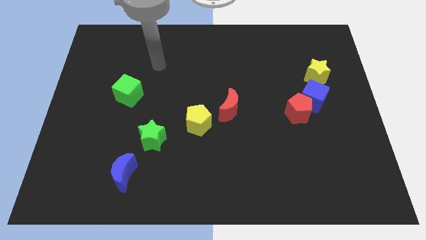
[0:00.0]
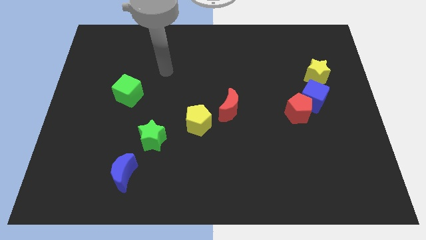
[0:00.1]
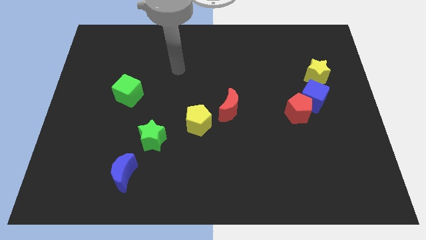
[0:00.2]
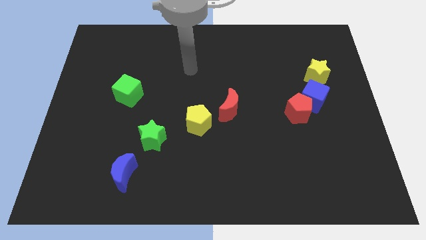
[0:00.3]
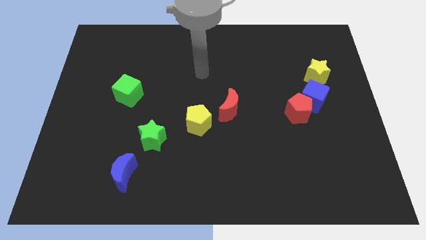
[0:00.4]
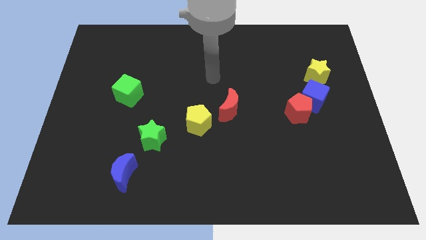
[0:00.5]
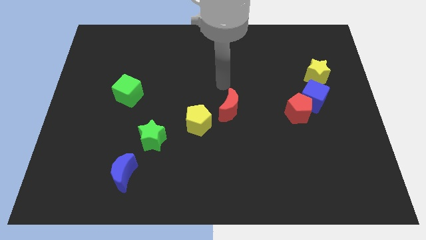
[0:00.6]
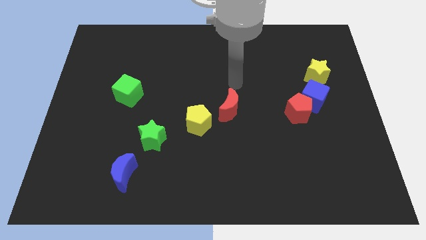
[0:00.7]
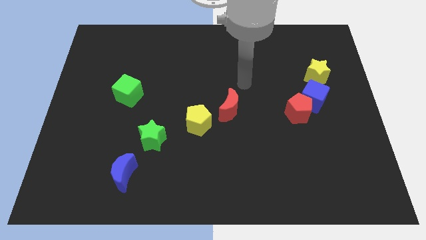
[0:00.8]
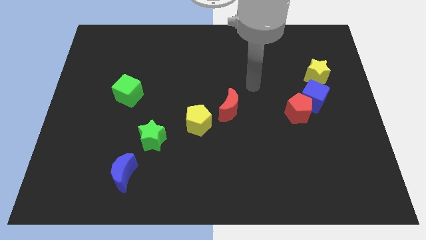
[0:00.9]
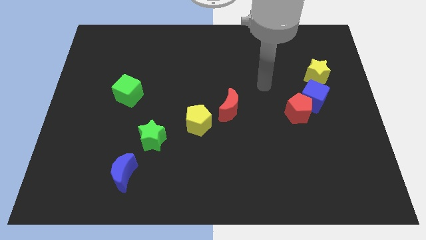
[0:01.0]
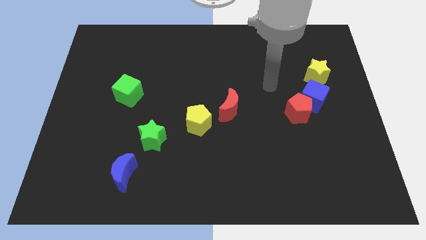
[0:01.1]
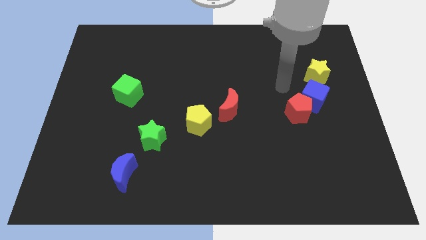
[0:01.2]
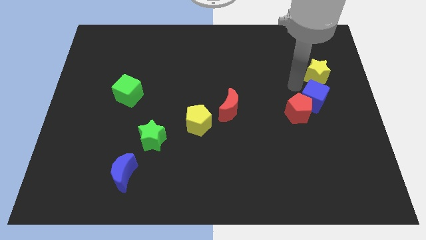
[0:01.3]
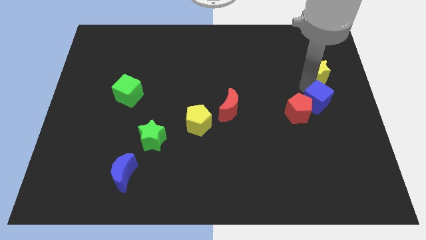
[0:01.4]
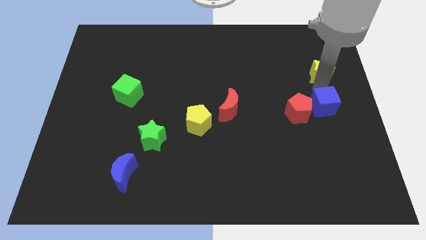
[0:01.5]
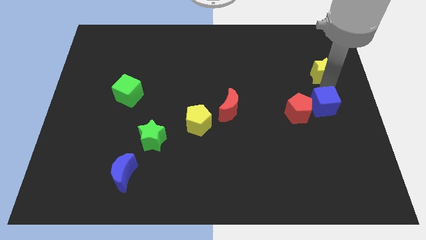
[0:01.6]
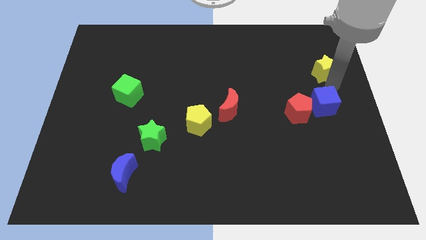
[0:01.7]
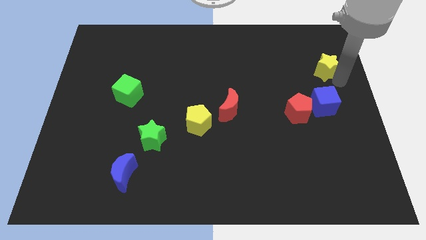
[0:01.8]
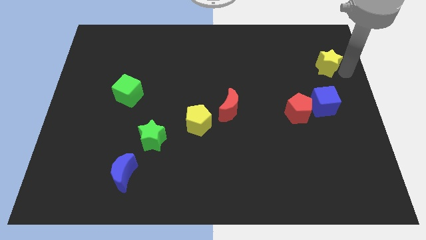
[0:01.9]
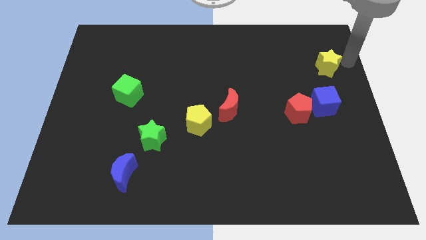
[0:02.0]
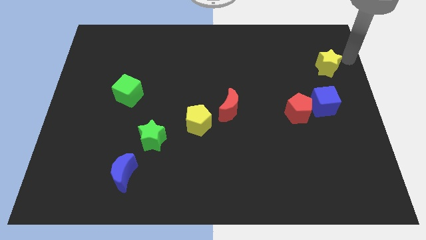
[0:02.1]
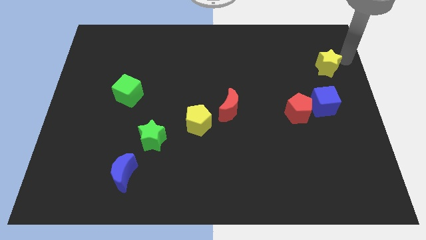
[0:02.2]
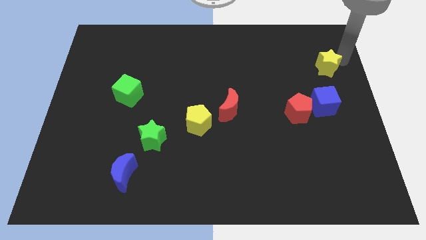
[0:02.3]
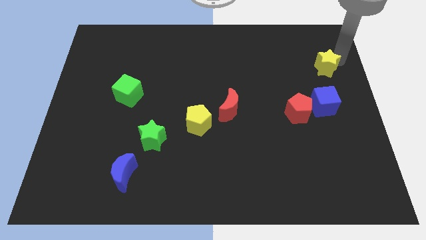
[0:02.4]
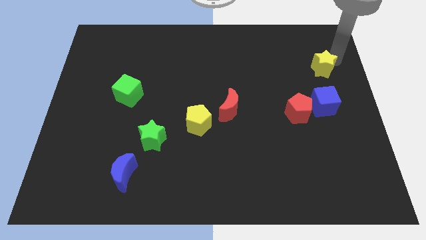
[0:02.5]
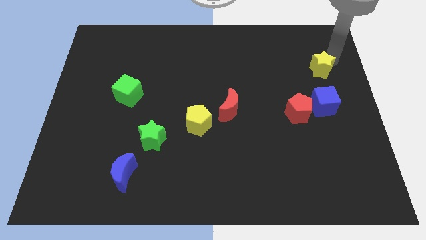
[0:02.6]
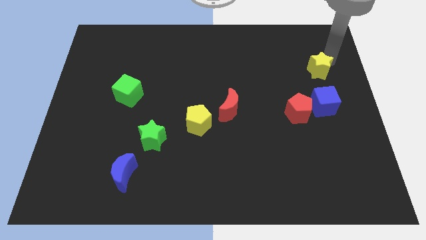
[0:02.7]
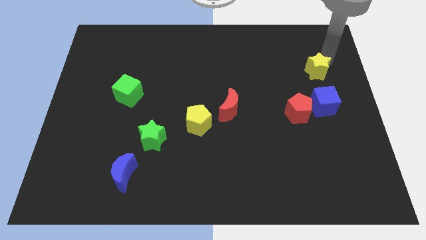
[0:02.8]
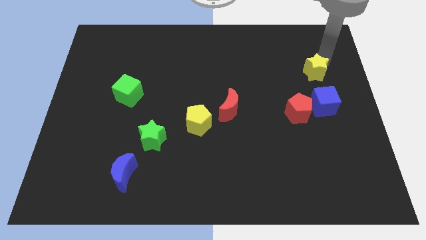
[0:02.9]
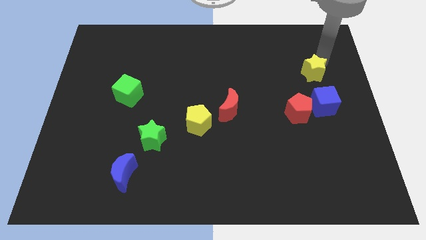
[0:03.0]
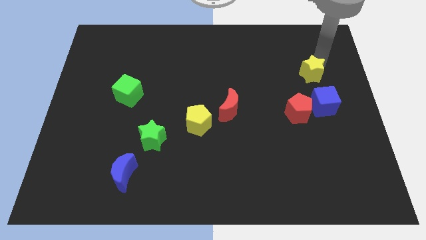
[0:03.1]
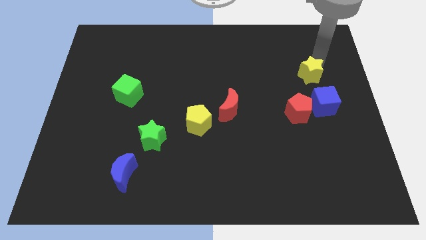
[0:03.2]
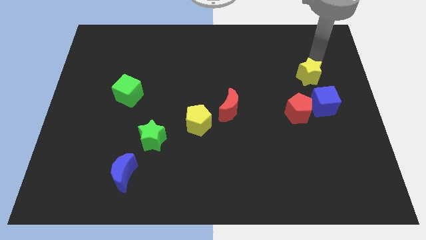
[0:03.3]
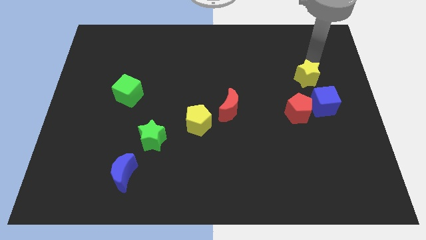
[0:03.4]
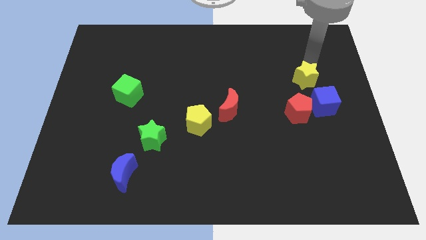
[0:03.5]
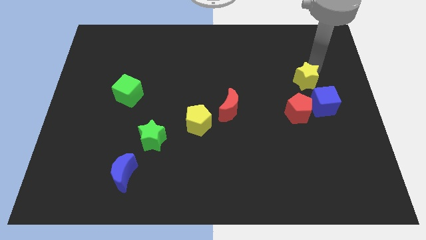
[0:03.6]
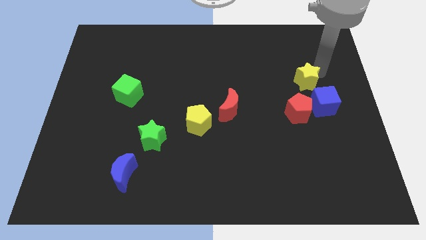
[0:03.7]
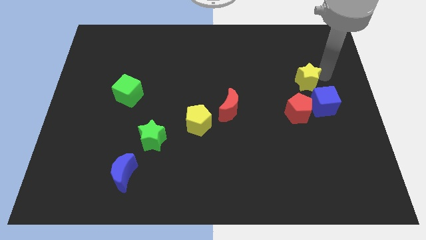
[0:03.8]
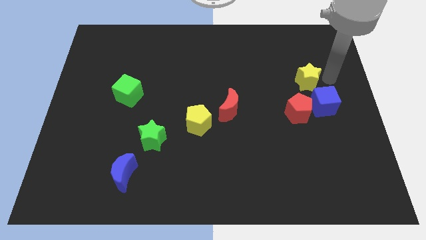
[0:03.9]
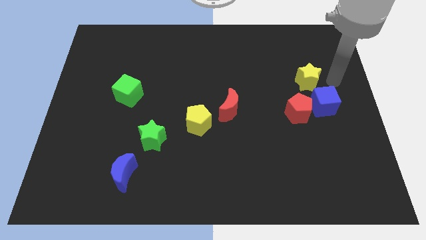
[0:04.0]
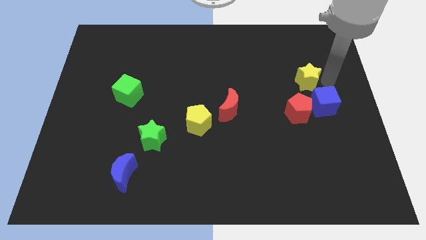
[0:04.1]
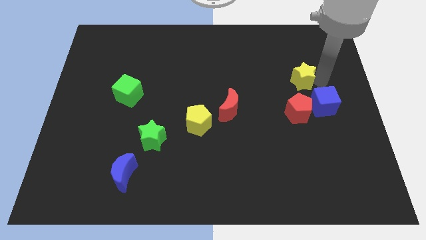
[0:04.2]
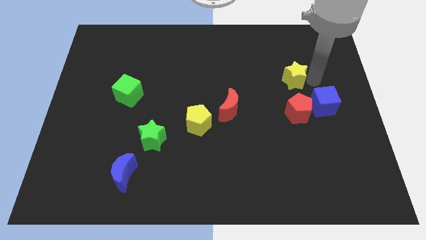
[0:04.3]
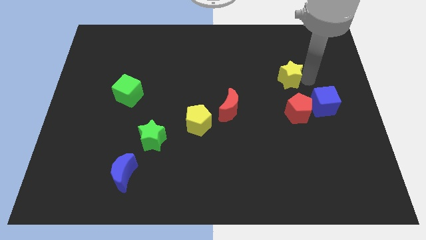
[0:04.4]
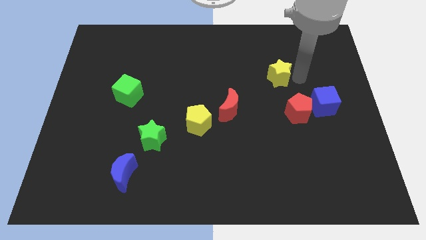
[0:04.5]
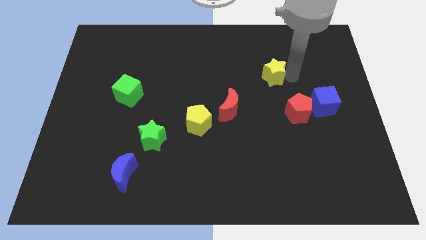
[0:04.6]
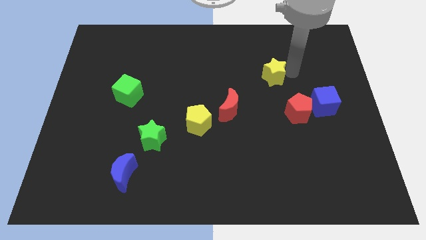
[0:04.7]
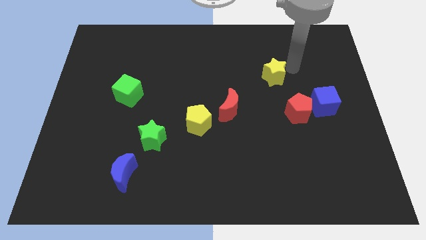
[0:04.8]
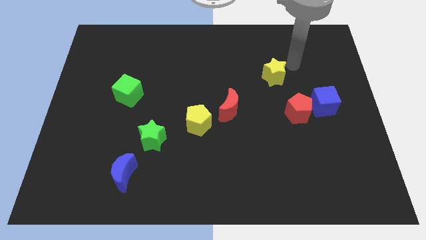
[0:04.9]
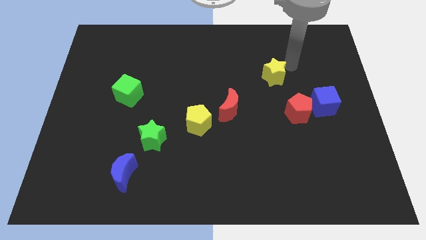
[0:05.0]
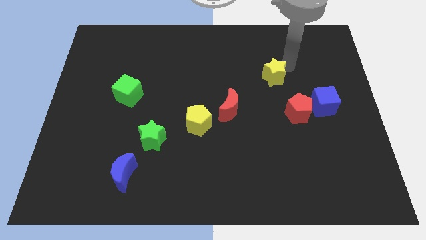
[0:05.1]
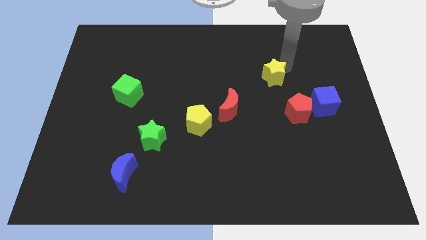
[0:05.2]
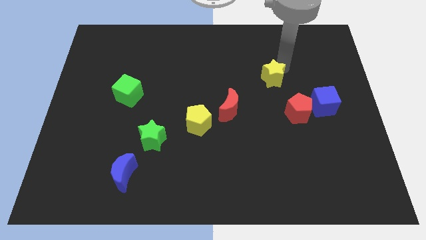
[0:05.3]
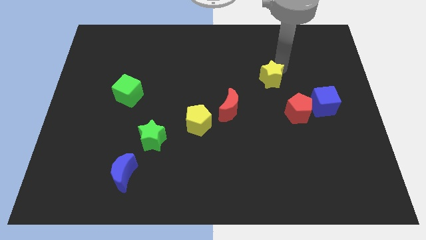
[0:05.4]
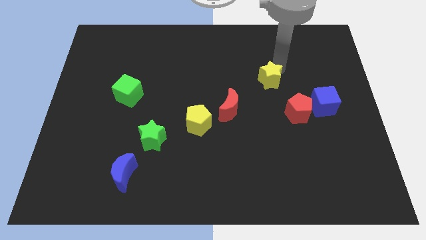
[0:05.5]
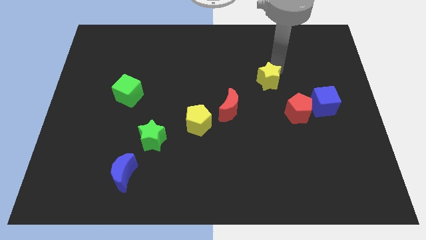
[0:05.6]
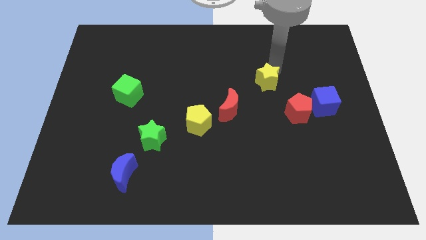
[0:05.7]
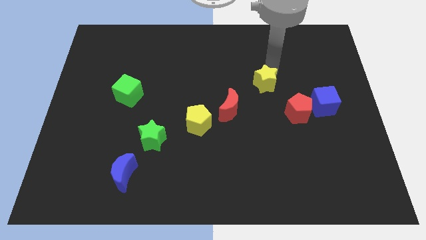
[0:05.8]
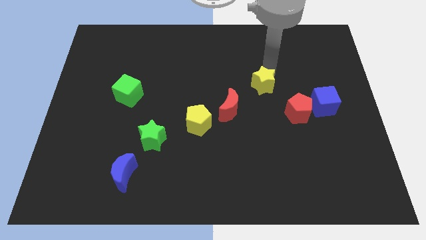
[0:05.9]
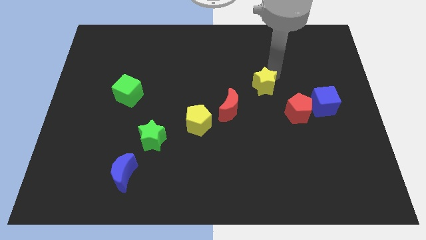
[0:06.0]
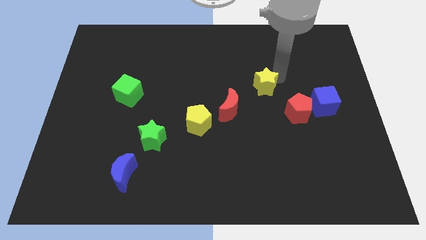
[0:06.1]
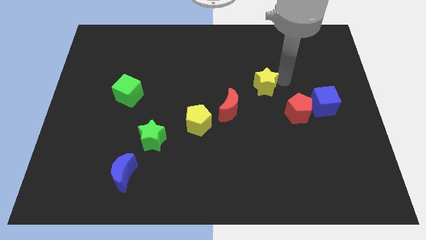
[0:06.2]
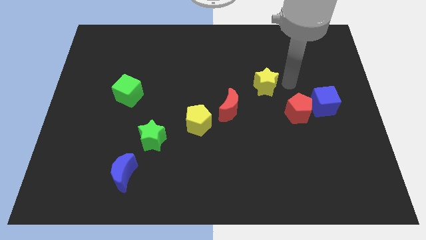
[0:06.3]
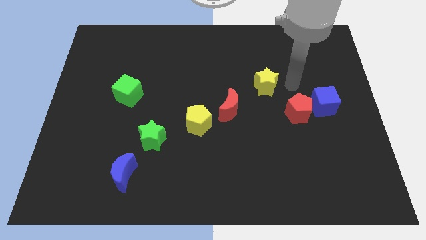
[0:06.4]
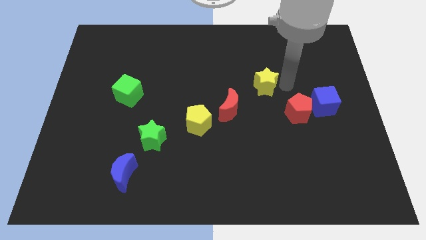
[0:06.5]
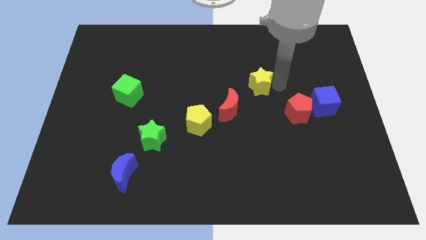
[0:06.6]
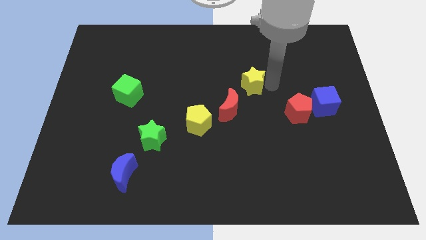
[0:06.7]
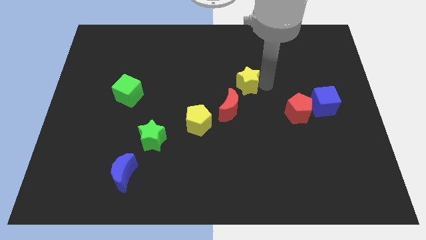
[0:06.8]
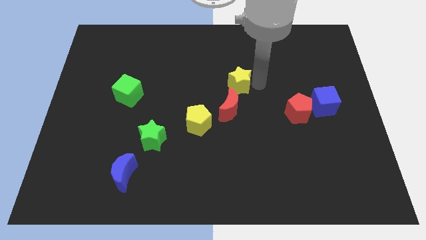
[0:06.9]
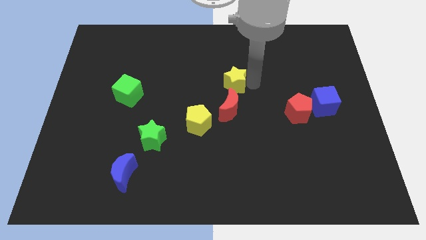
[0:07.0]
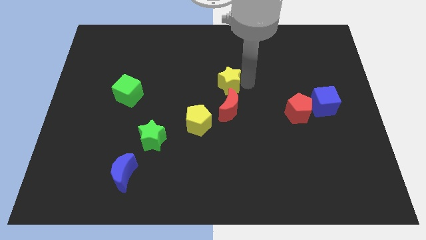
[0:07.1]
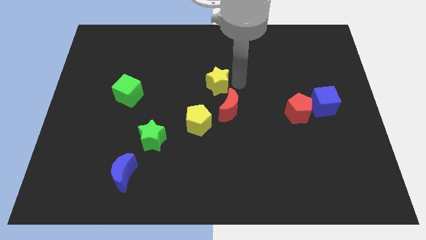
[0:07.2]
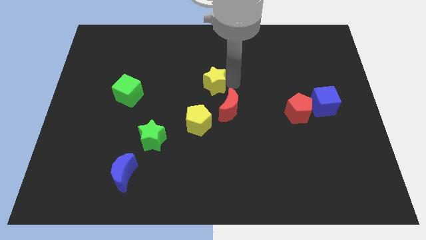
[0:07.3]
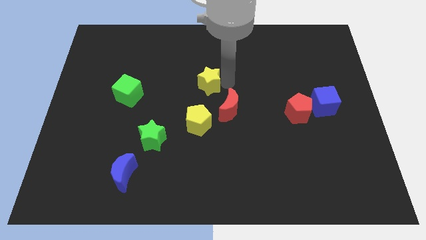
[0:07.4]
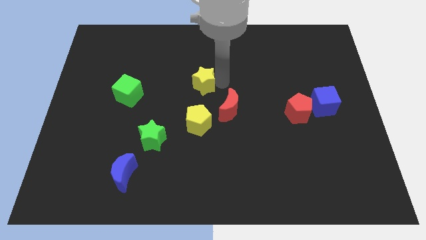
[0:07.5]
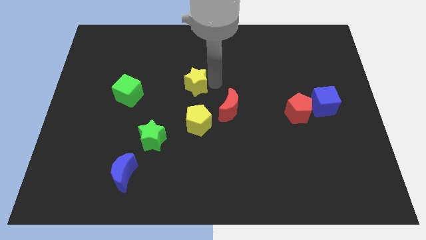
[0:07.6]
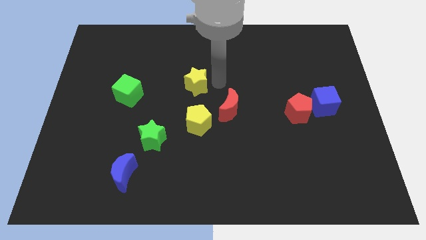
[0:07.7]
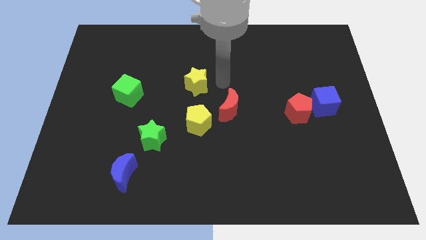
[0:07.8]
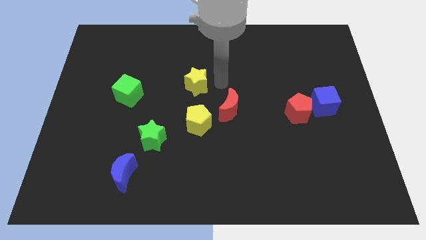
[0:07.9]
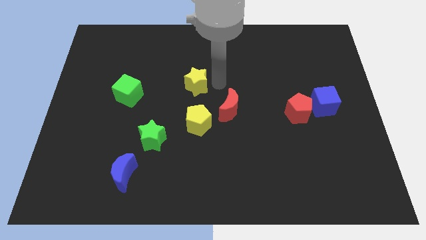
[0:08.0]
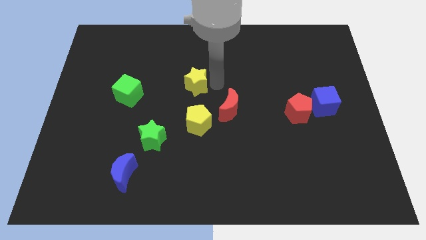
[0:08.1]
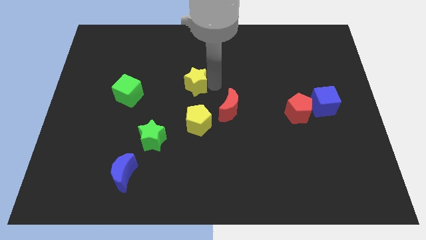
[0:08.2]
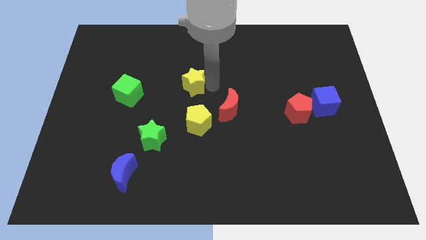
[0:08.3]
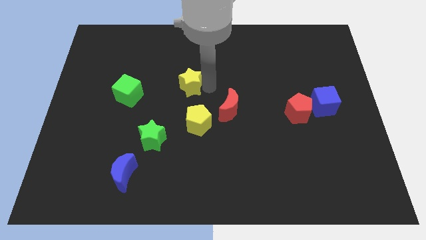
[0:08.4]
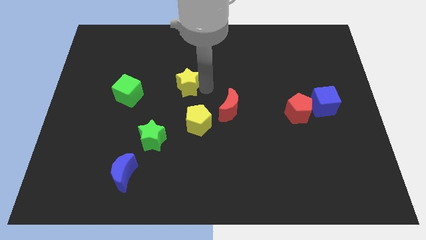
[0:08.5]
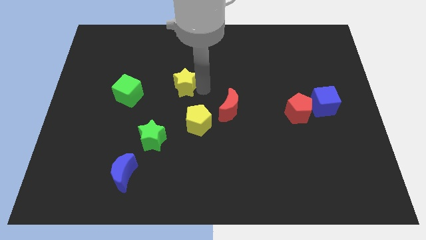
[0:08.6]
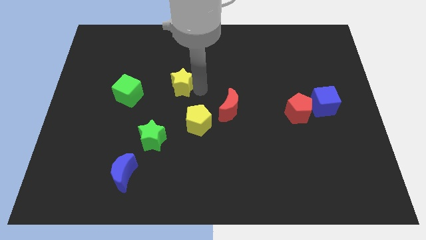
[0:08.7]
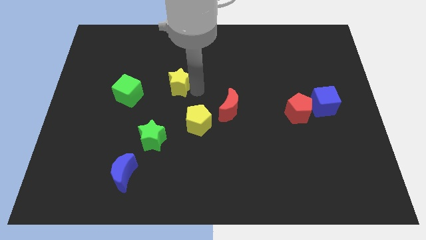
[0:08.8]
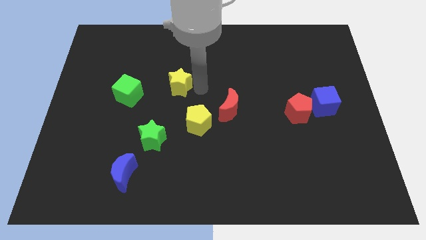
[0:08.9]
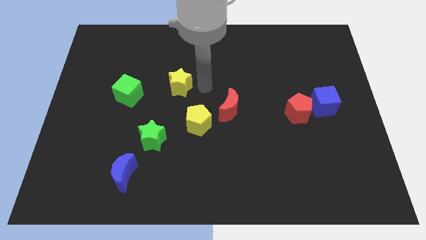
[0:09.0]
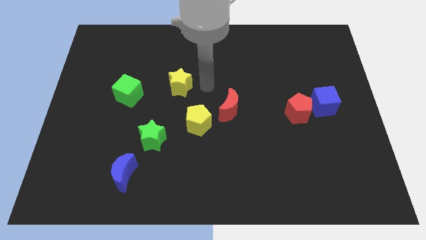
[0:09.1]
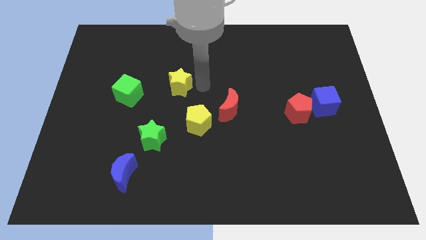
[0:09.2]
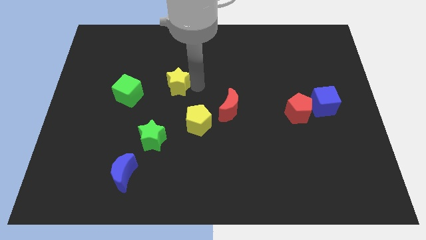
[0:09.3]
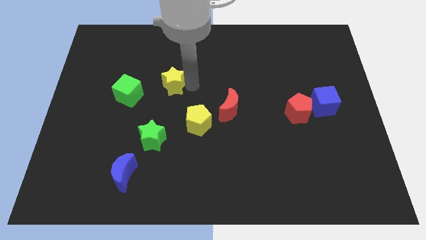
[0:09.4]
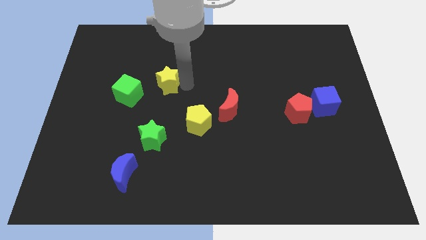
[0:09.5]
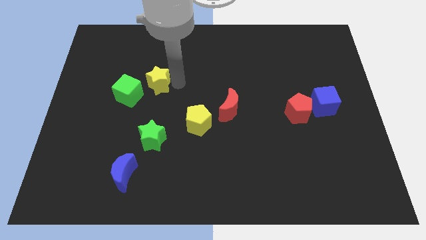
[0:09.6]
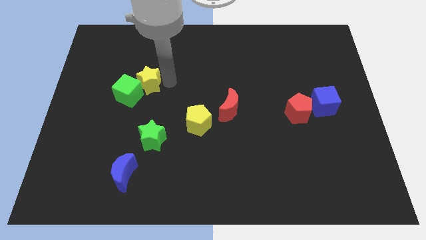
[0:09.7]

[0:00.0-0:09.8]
push the yellow star close to the green cube
